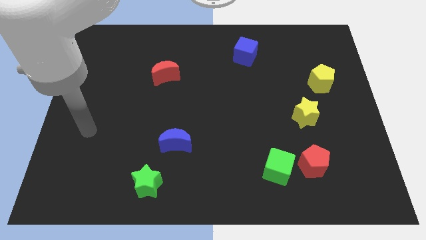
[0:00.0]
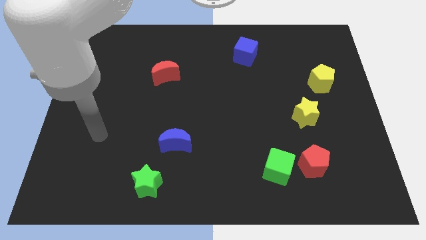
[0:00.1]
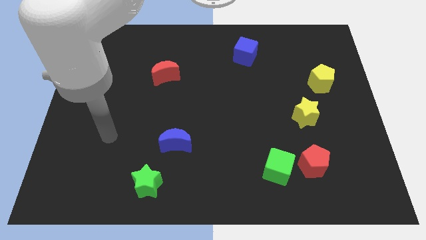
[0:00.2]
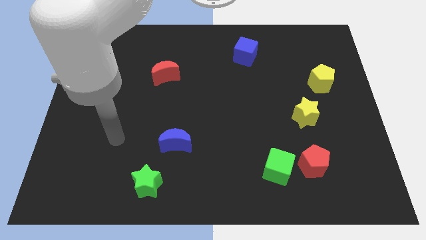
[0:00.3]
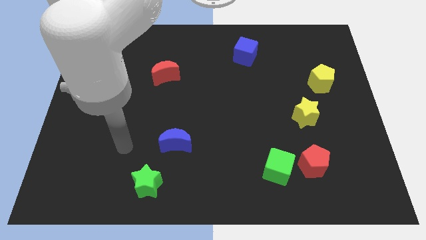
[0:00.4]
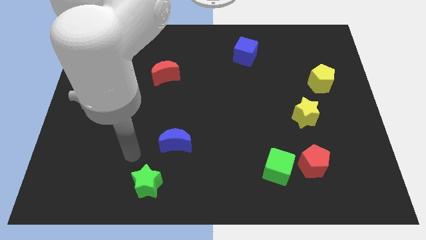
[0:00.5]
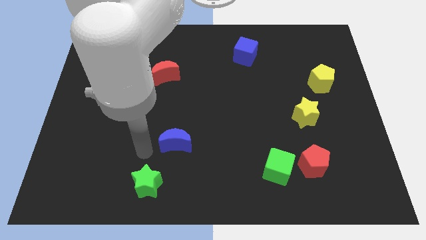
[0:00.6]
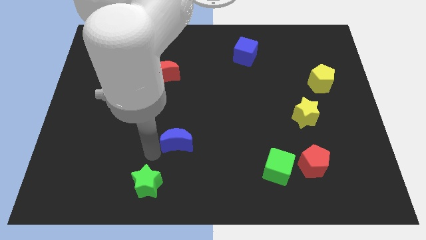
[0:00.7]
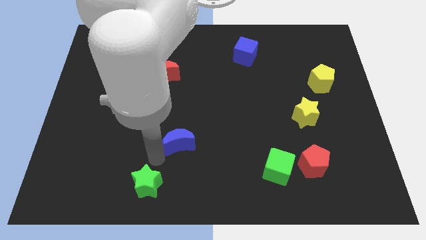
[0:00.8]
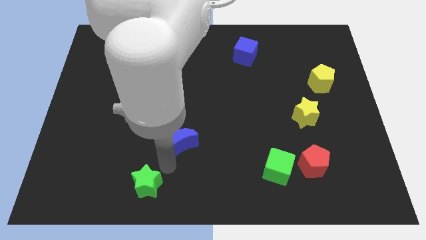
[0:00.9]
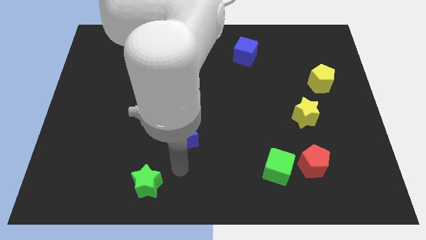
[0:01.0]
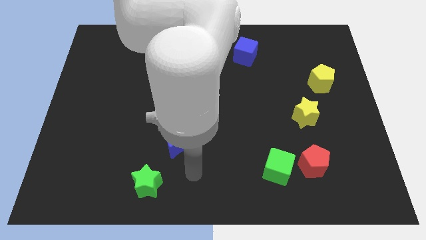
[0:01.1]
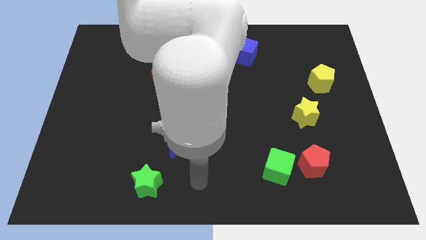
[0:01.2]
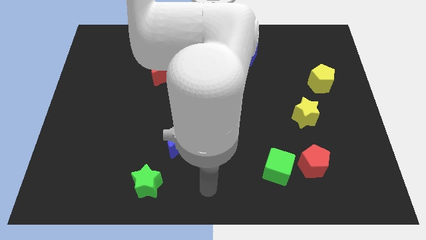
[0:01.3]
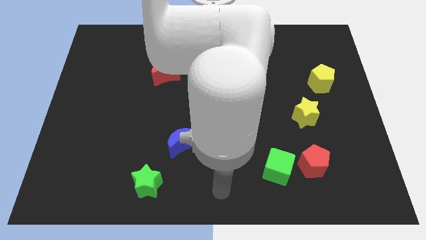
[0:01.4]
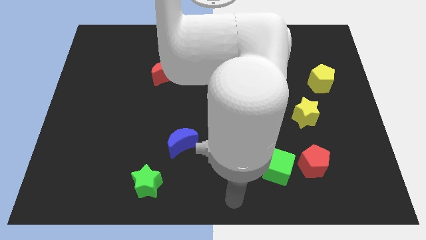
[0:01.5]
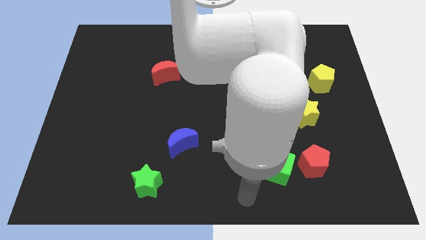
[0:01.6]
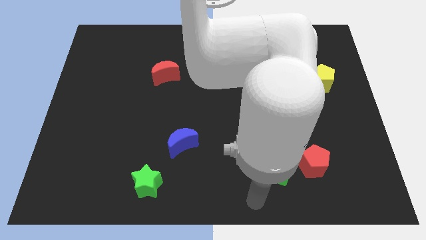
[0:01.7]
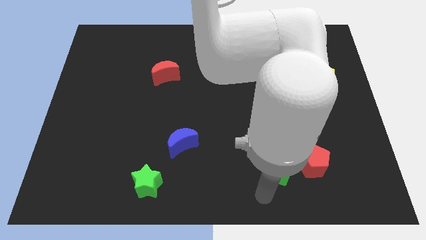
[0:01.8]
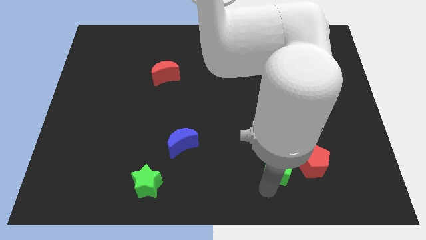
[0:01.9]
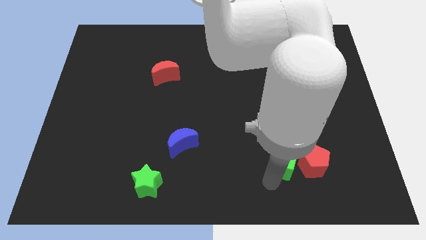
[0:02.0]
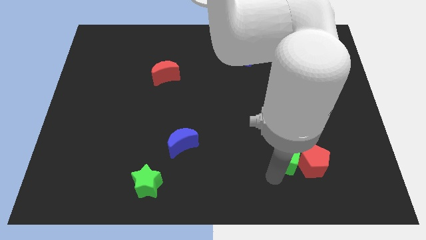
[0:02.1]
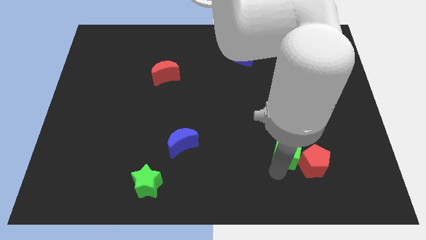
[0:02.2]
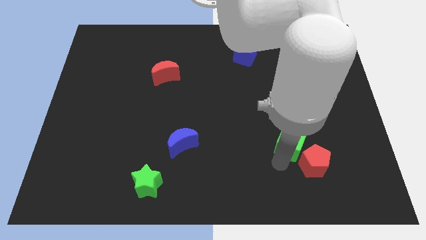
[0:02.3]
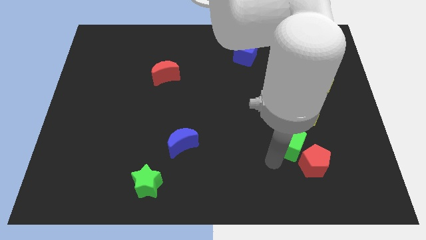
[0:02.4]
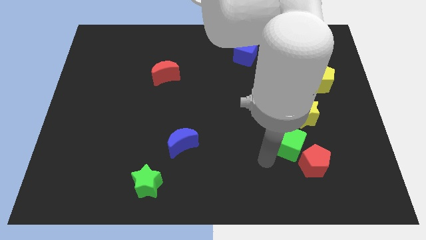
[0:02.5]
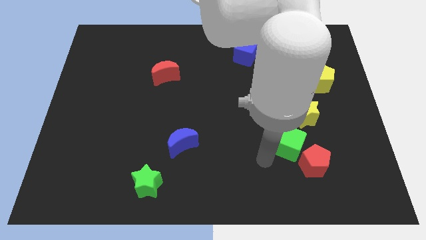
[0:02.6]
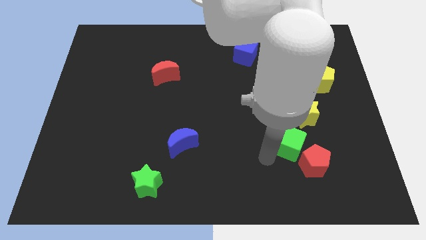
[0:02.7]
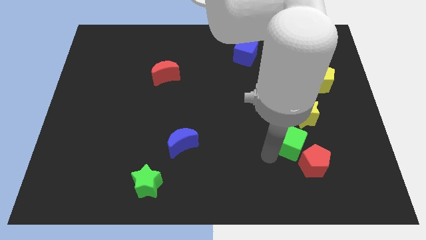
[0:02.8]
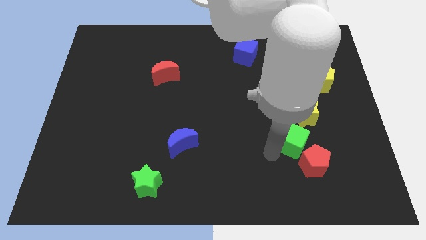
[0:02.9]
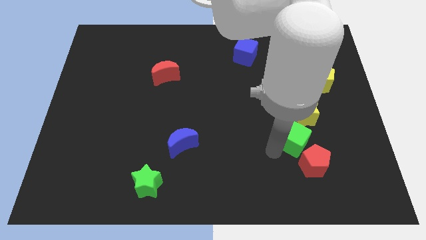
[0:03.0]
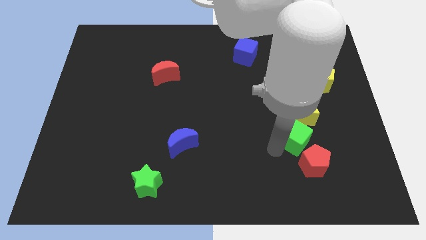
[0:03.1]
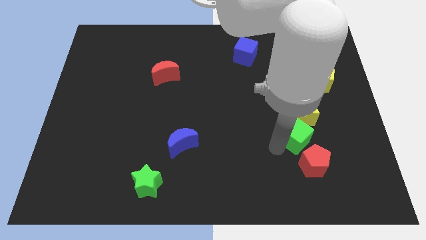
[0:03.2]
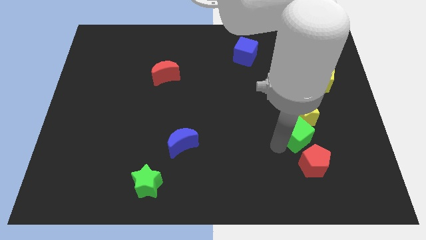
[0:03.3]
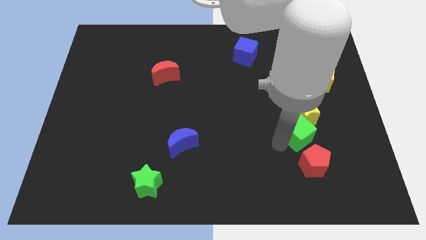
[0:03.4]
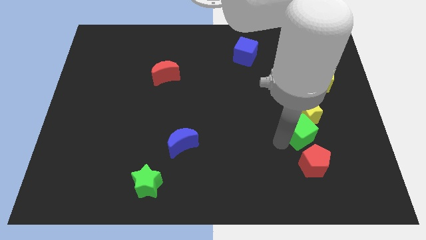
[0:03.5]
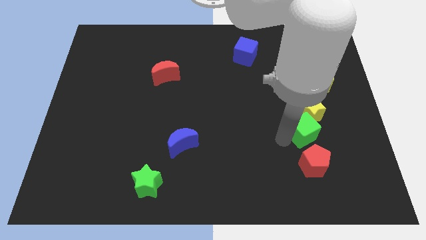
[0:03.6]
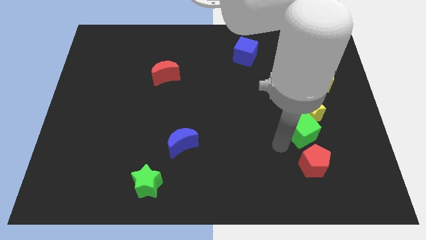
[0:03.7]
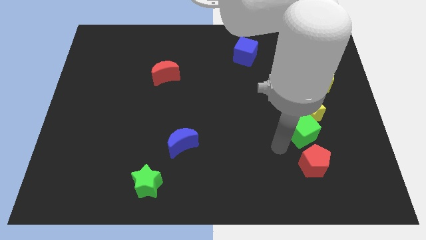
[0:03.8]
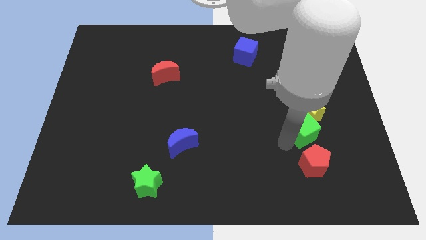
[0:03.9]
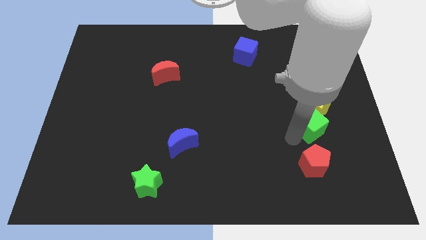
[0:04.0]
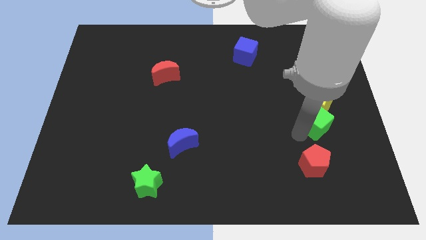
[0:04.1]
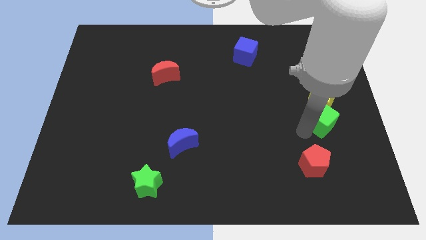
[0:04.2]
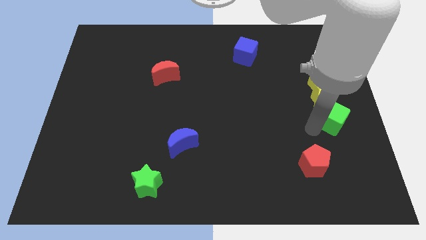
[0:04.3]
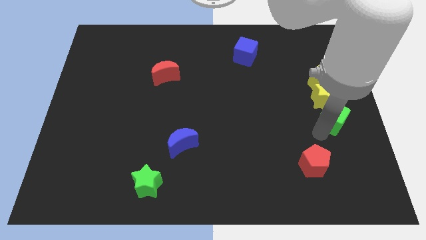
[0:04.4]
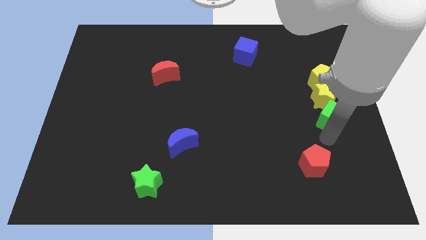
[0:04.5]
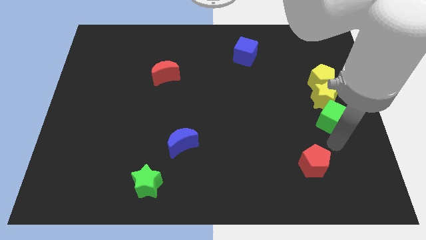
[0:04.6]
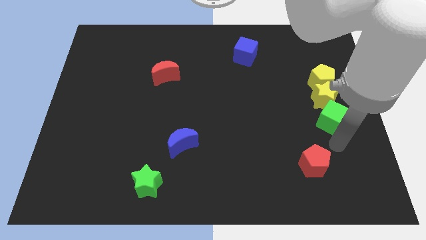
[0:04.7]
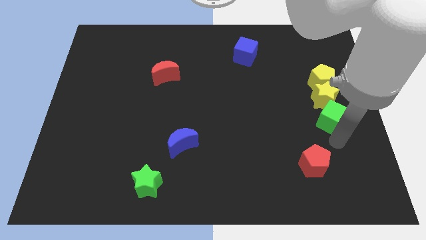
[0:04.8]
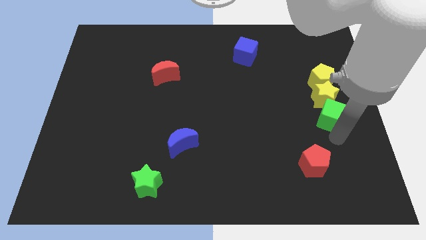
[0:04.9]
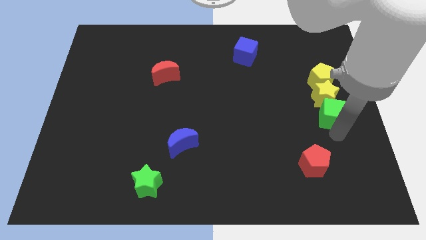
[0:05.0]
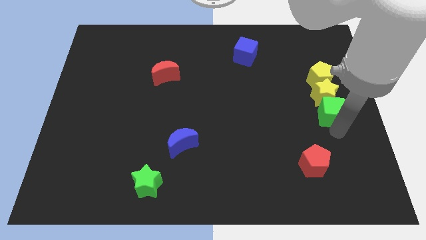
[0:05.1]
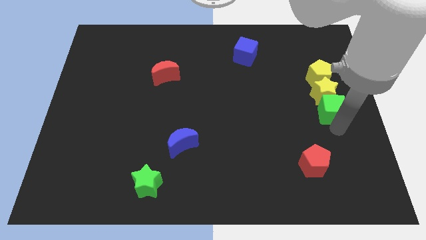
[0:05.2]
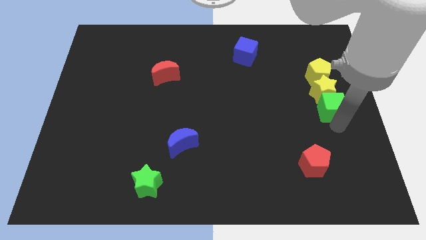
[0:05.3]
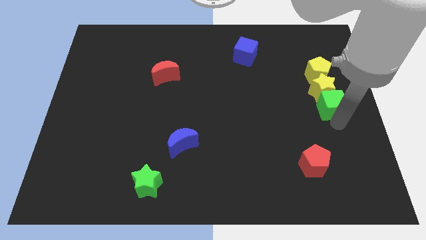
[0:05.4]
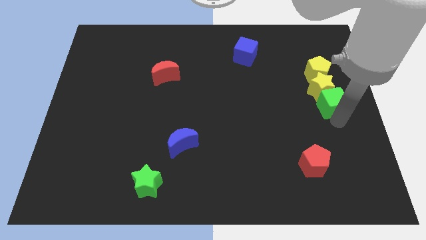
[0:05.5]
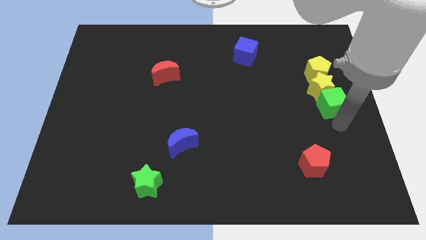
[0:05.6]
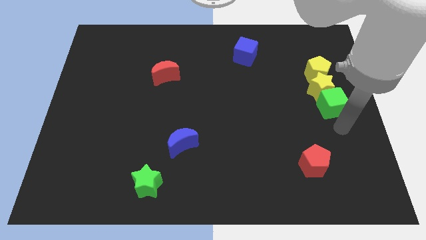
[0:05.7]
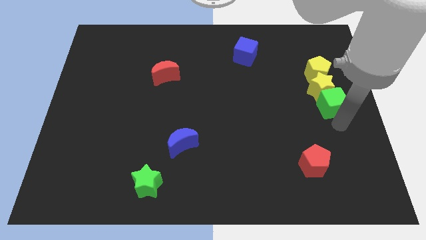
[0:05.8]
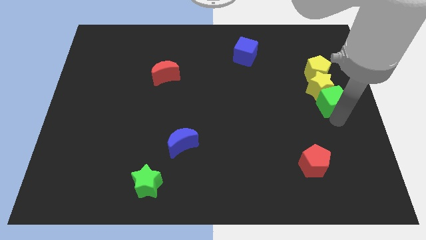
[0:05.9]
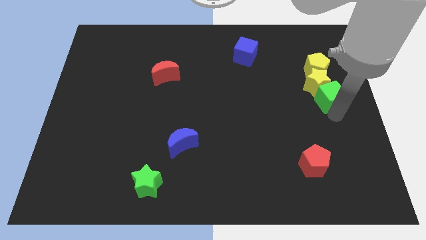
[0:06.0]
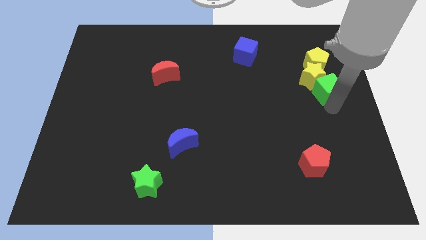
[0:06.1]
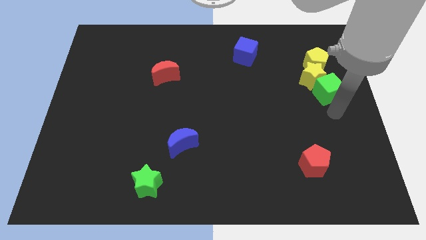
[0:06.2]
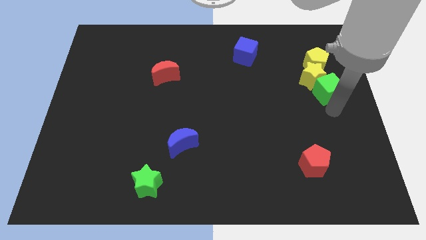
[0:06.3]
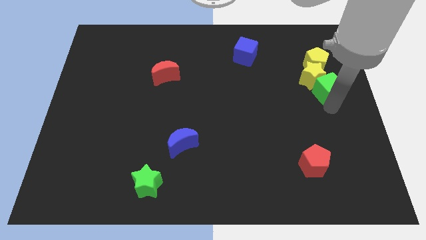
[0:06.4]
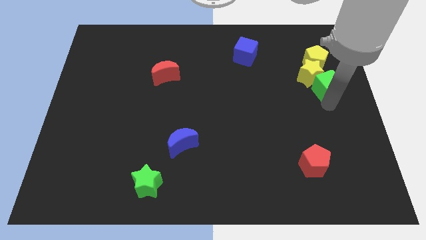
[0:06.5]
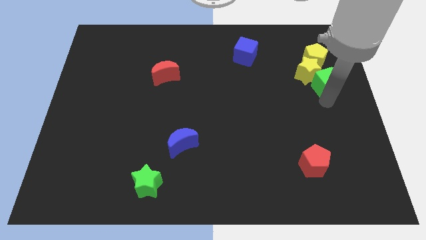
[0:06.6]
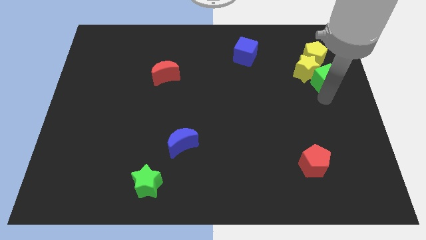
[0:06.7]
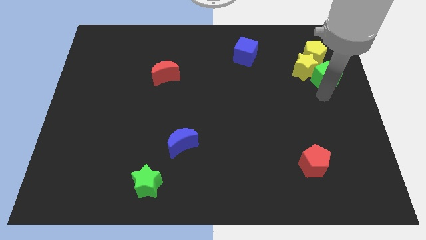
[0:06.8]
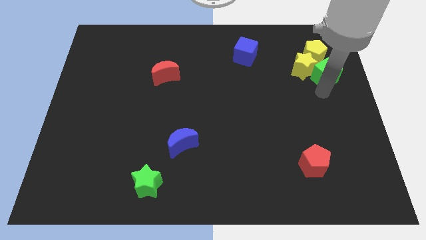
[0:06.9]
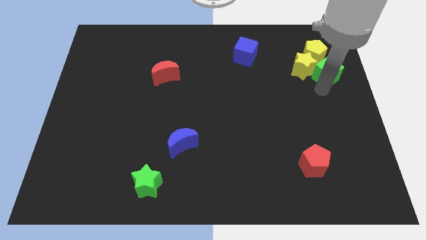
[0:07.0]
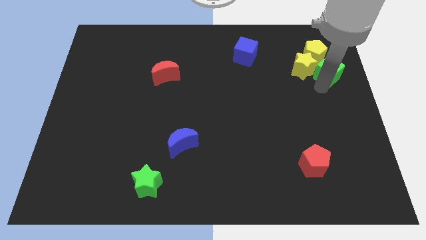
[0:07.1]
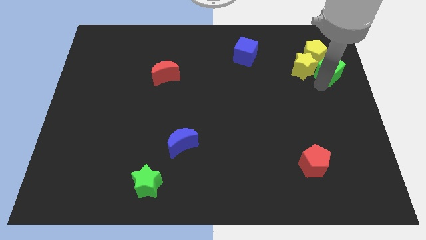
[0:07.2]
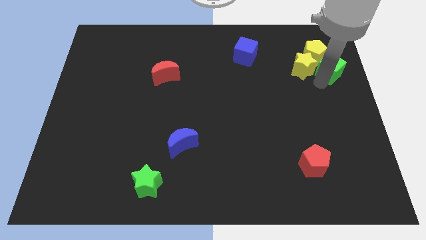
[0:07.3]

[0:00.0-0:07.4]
push the green cube next to the yellow pentagon

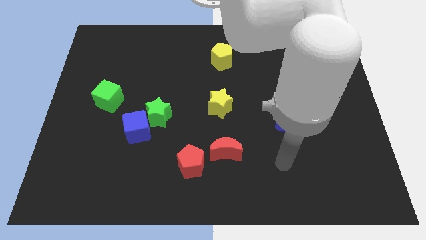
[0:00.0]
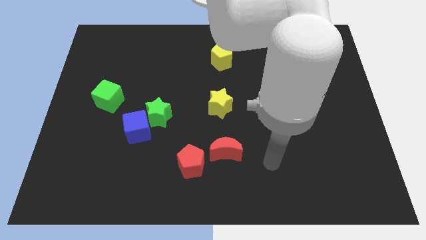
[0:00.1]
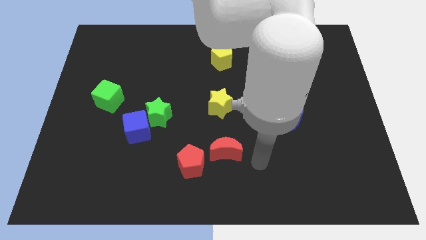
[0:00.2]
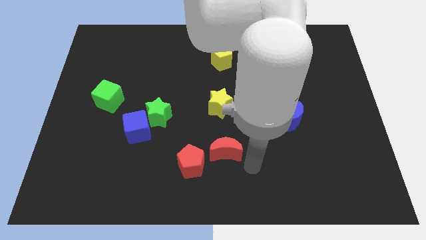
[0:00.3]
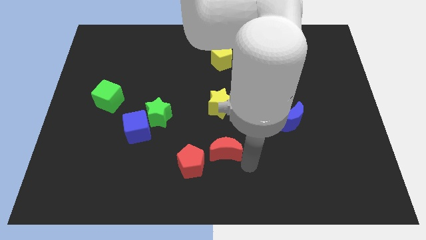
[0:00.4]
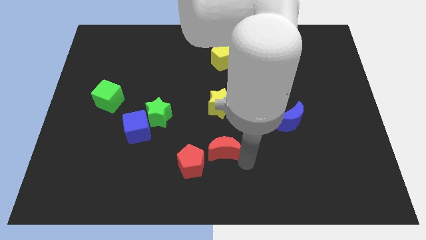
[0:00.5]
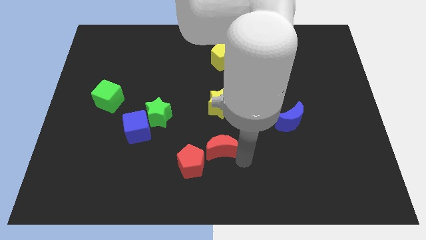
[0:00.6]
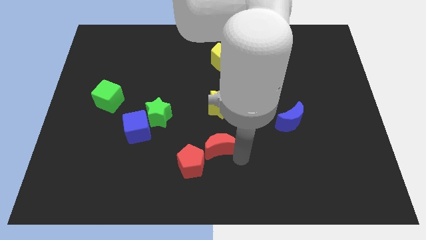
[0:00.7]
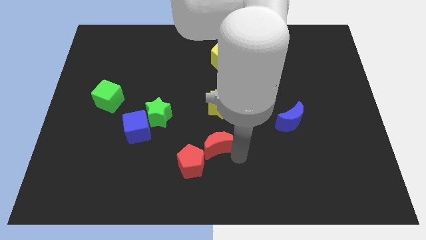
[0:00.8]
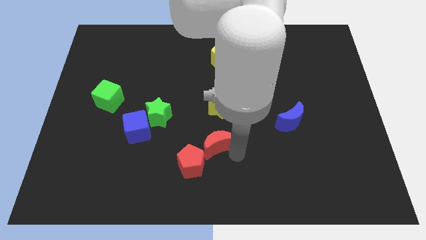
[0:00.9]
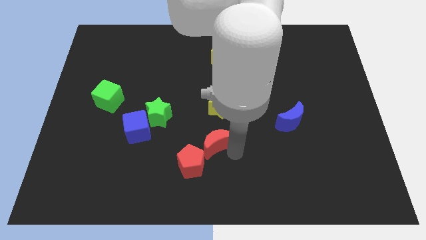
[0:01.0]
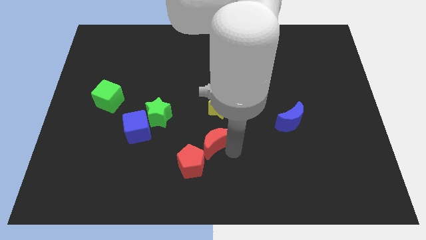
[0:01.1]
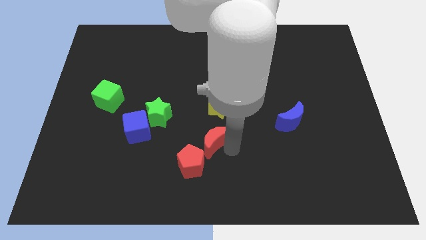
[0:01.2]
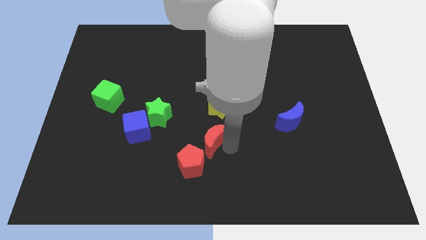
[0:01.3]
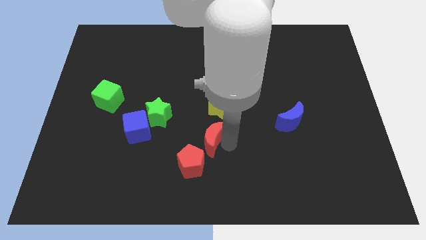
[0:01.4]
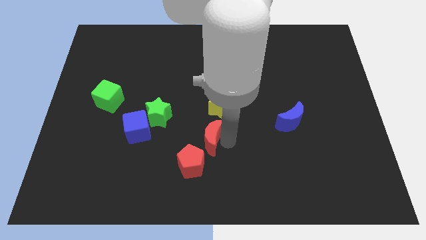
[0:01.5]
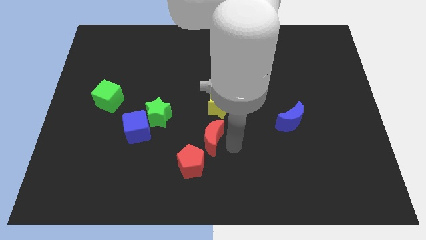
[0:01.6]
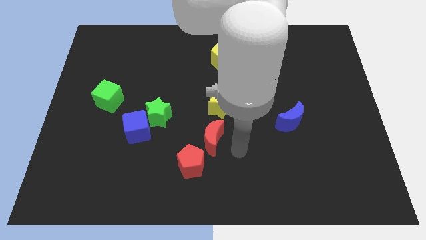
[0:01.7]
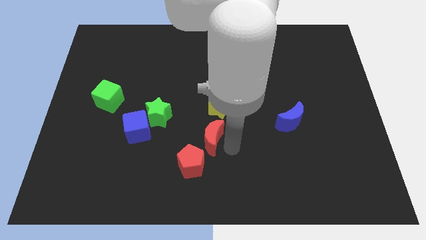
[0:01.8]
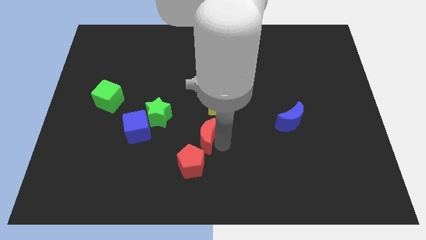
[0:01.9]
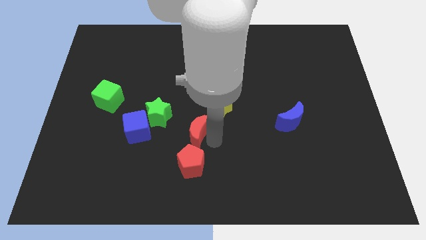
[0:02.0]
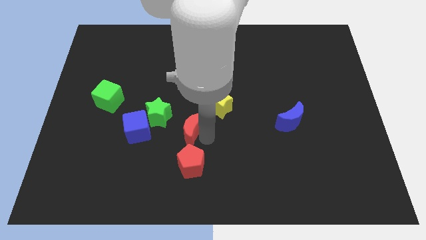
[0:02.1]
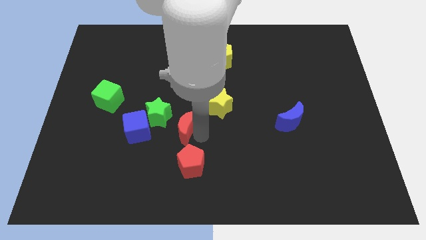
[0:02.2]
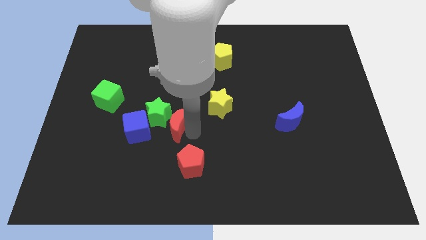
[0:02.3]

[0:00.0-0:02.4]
slide the red moon to the green star
